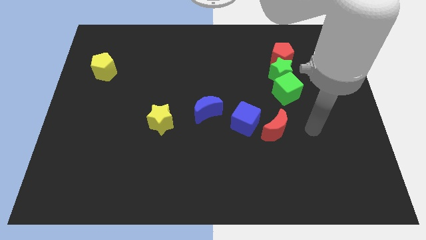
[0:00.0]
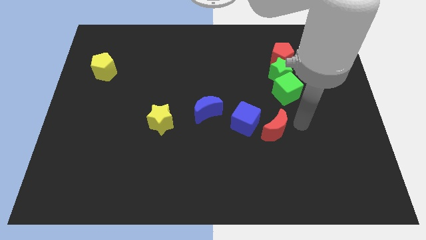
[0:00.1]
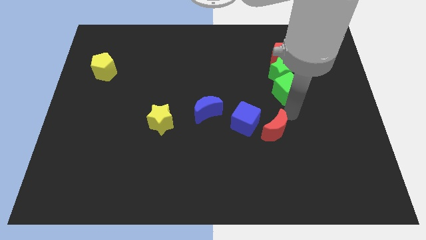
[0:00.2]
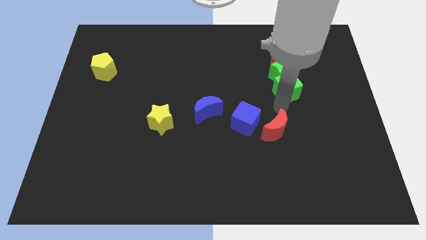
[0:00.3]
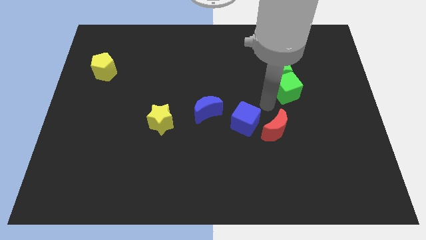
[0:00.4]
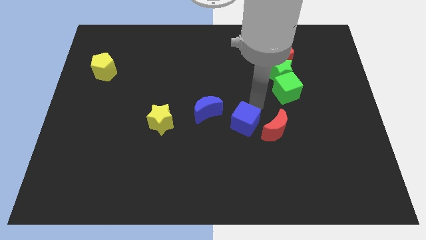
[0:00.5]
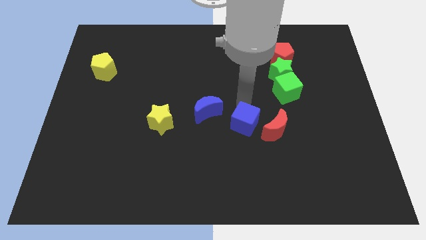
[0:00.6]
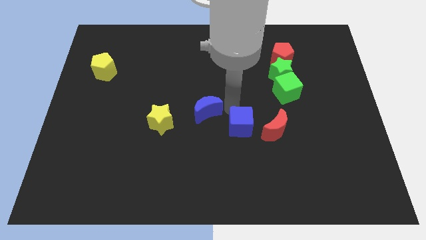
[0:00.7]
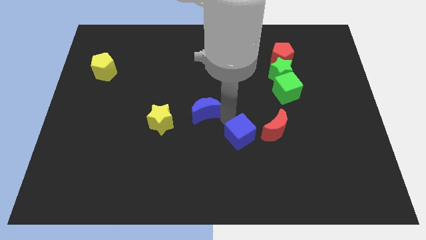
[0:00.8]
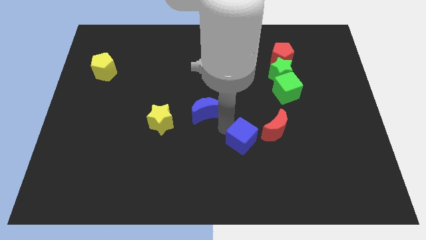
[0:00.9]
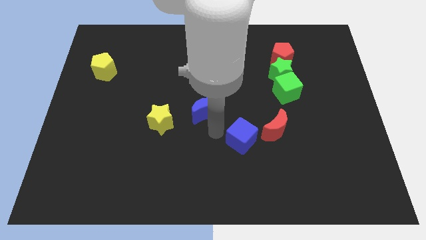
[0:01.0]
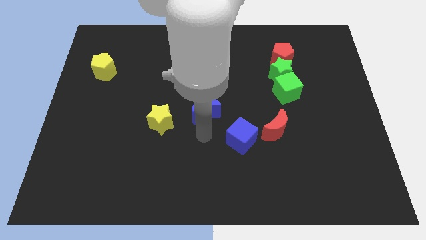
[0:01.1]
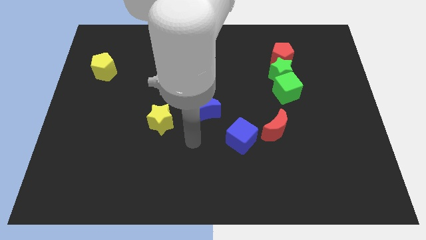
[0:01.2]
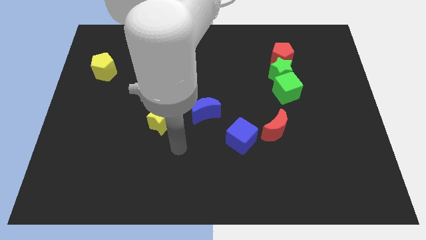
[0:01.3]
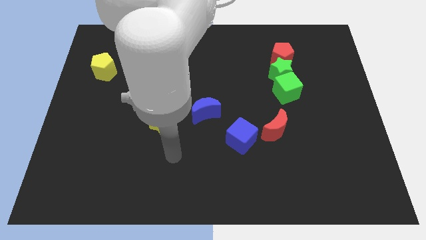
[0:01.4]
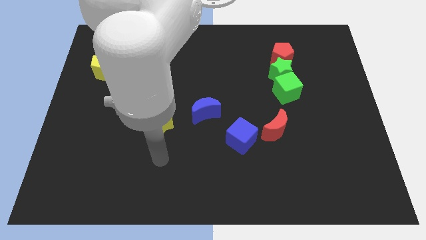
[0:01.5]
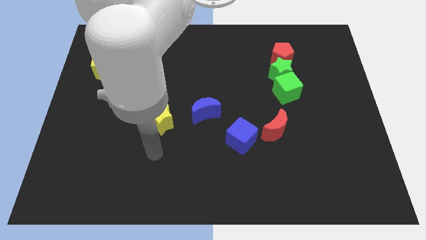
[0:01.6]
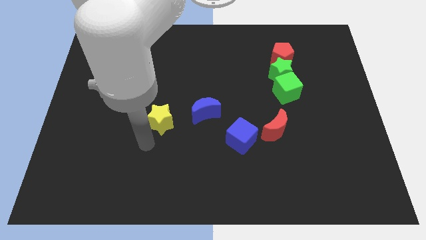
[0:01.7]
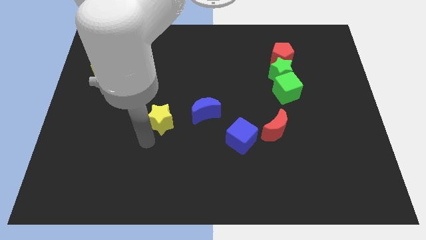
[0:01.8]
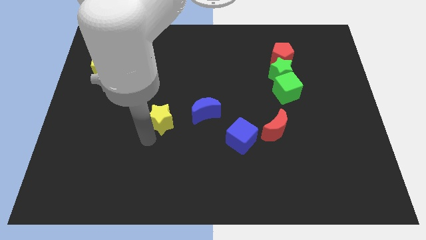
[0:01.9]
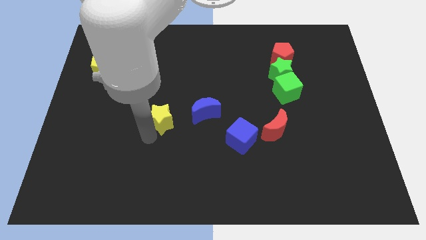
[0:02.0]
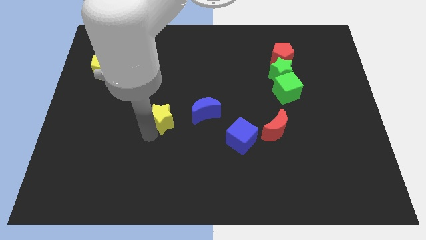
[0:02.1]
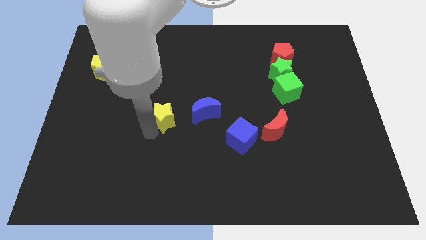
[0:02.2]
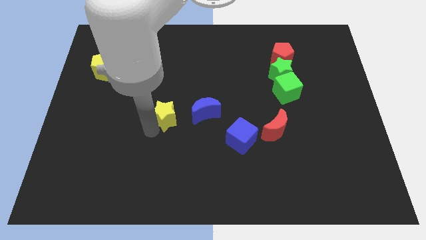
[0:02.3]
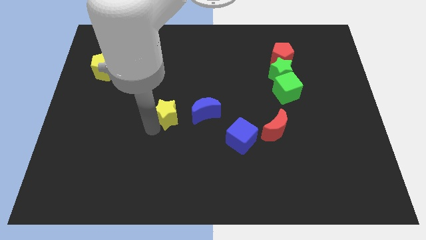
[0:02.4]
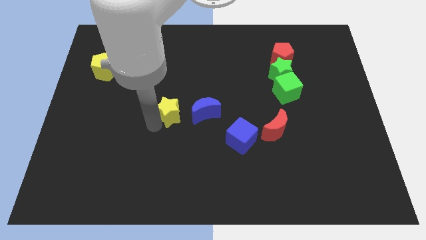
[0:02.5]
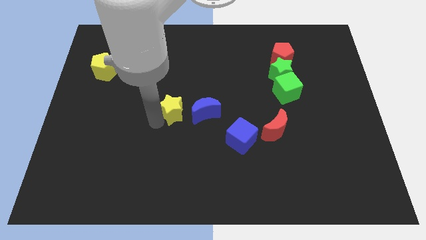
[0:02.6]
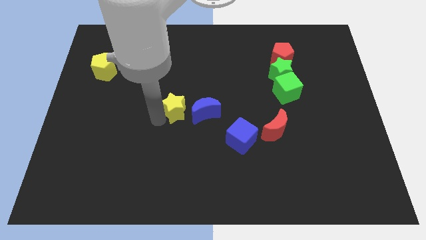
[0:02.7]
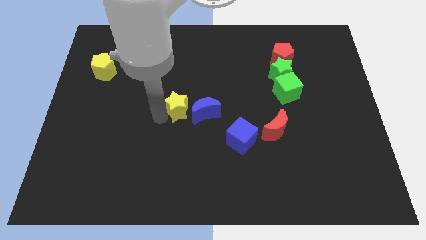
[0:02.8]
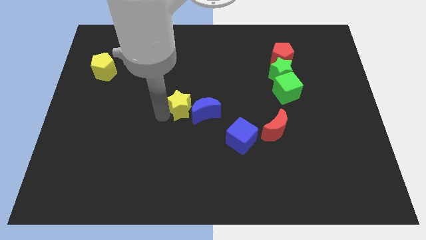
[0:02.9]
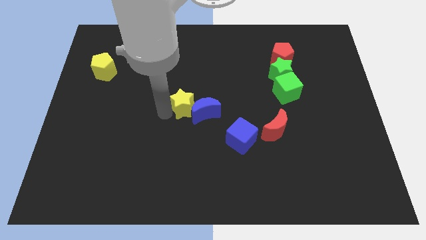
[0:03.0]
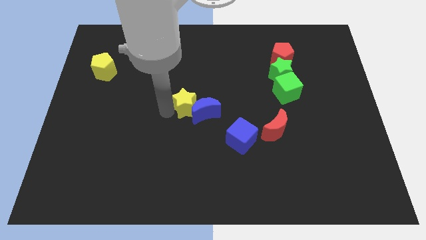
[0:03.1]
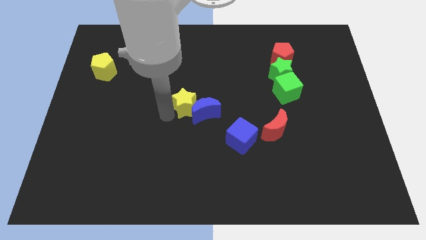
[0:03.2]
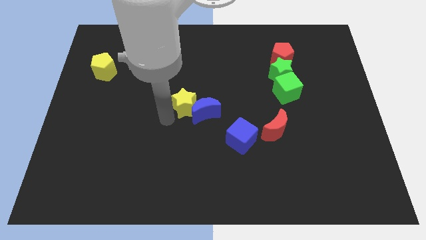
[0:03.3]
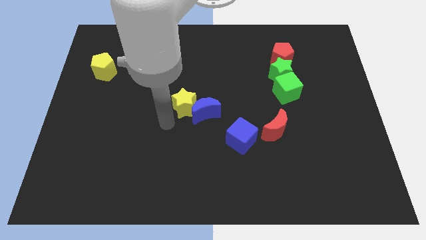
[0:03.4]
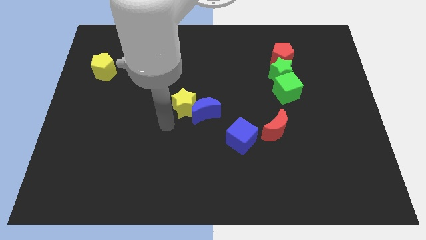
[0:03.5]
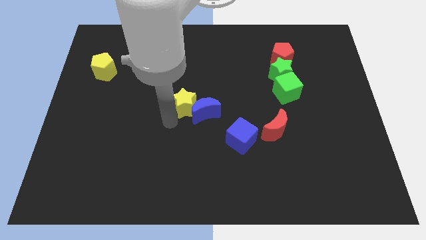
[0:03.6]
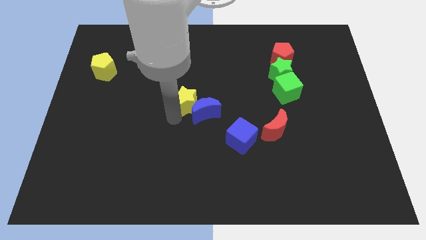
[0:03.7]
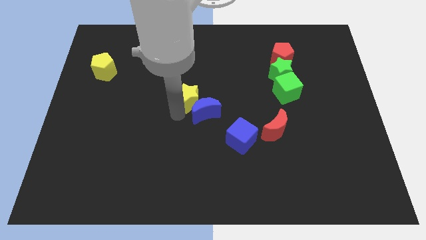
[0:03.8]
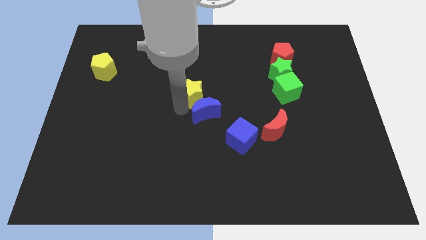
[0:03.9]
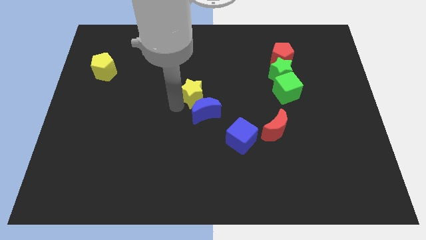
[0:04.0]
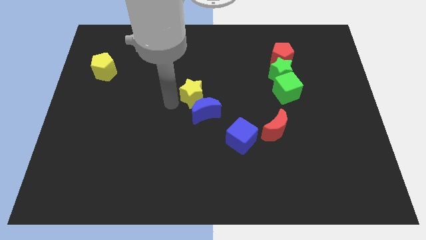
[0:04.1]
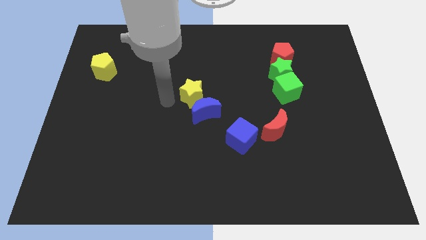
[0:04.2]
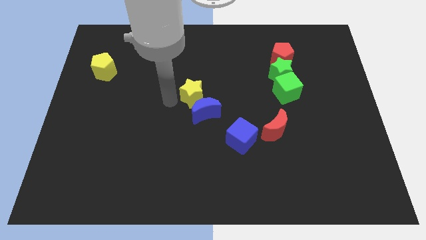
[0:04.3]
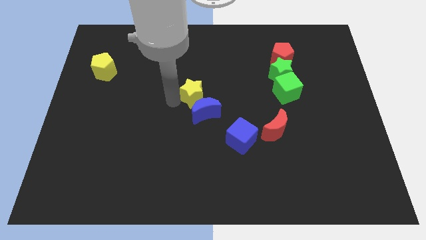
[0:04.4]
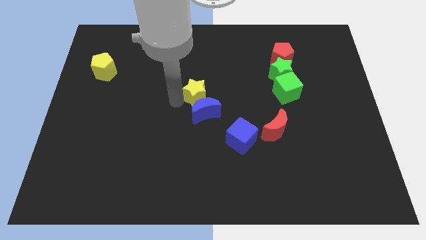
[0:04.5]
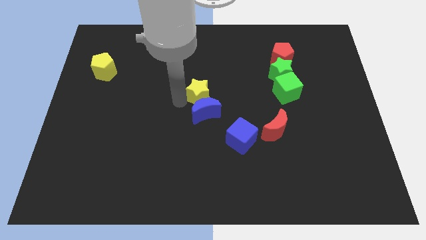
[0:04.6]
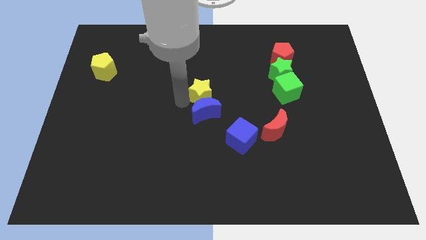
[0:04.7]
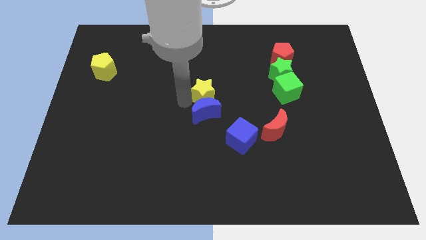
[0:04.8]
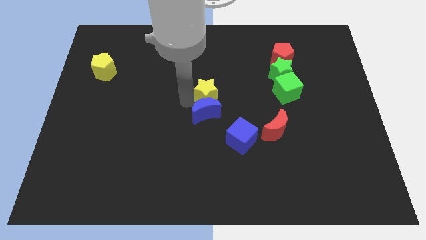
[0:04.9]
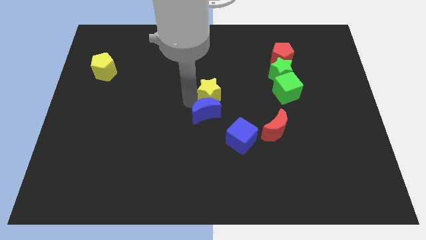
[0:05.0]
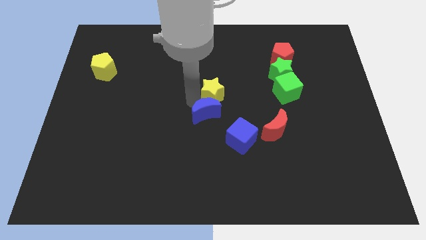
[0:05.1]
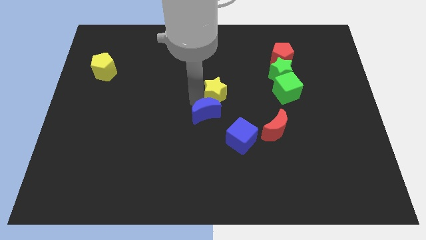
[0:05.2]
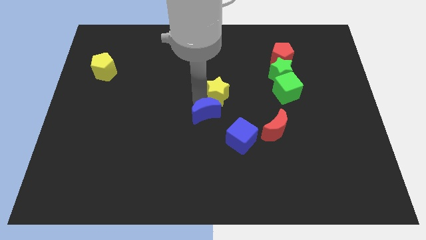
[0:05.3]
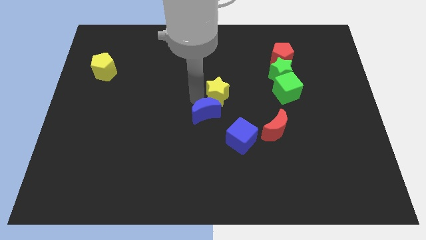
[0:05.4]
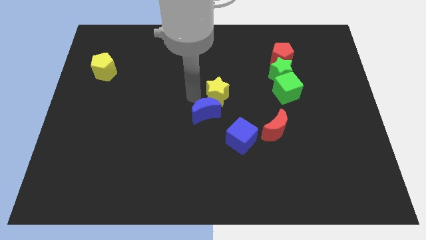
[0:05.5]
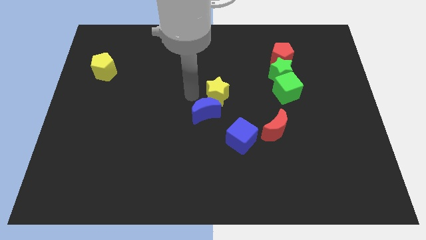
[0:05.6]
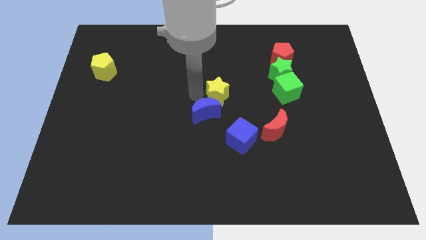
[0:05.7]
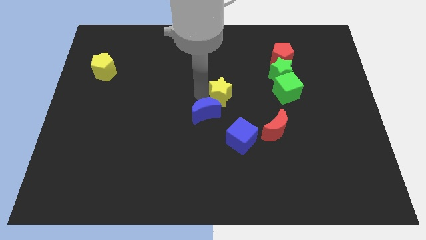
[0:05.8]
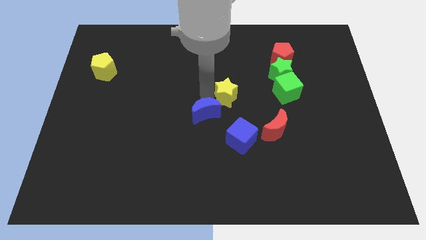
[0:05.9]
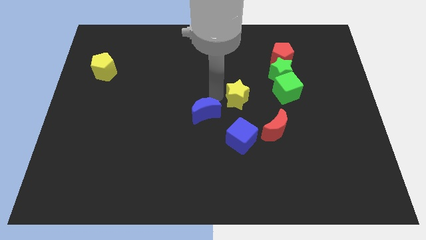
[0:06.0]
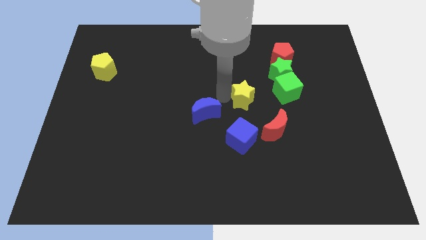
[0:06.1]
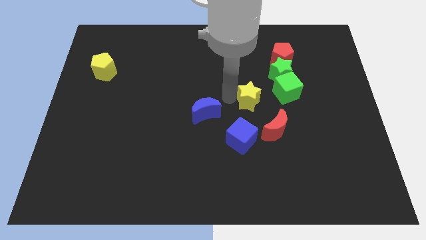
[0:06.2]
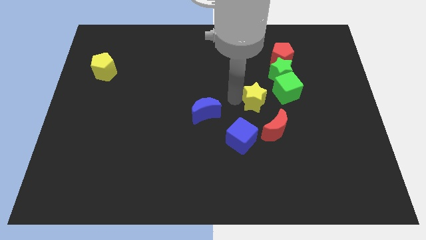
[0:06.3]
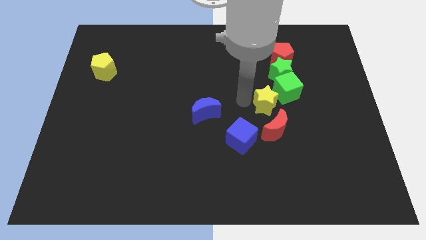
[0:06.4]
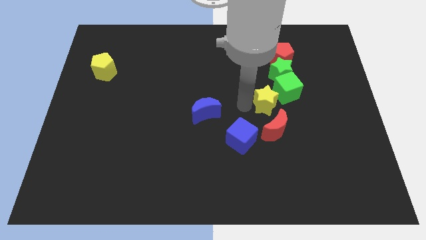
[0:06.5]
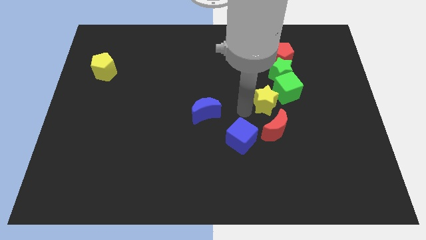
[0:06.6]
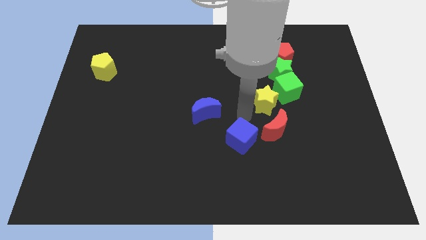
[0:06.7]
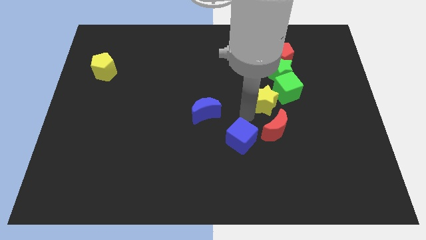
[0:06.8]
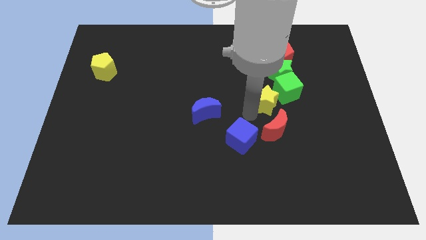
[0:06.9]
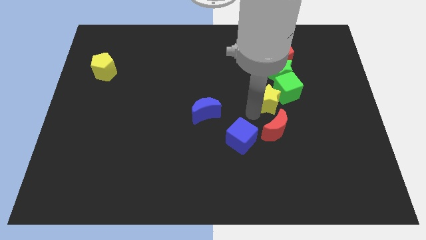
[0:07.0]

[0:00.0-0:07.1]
put the yellow star next to the green cube
